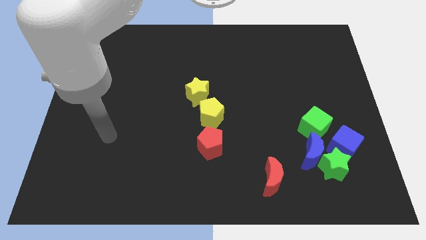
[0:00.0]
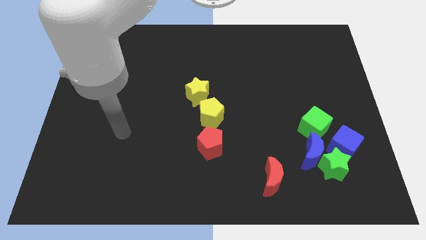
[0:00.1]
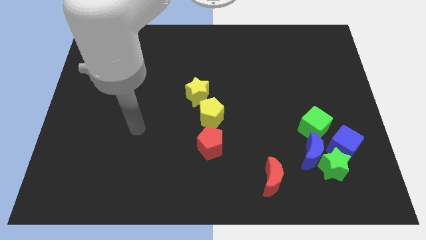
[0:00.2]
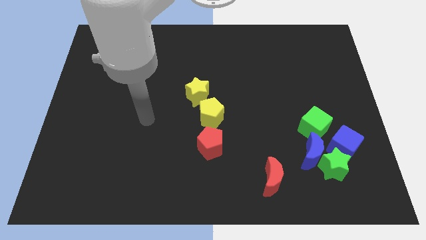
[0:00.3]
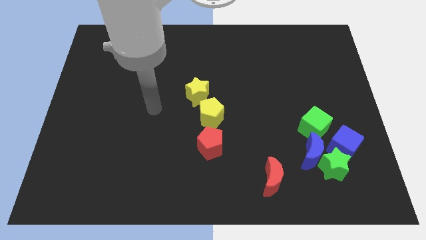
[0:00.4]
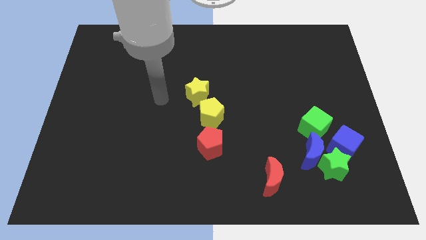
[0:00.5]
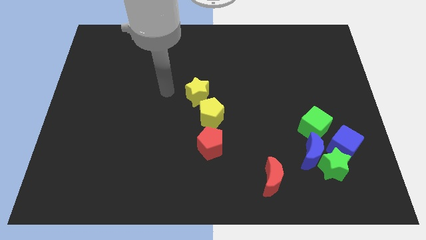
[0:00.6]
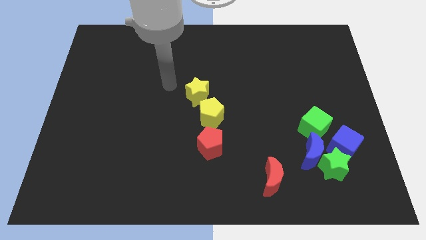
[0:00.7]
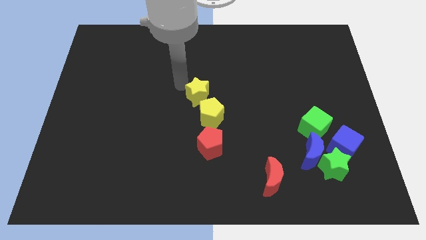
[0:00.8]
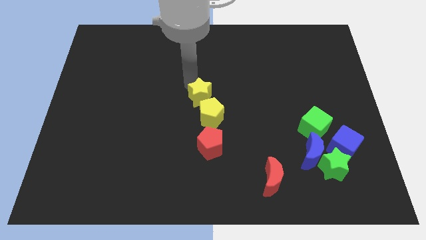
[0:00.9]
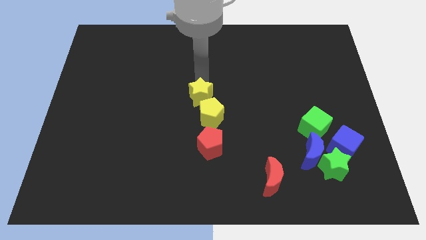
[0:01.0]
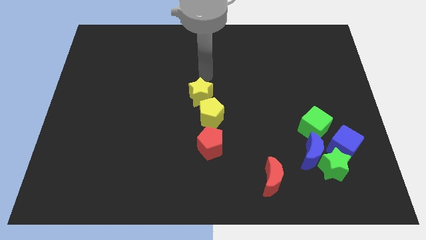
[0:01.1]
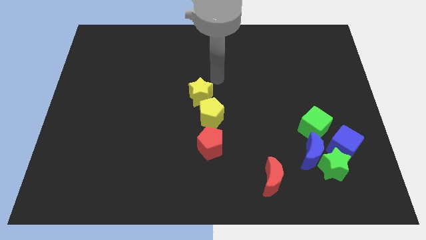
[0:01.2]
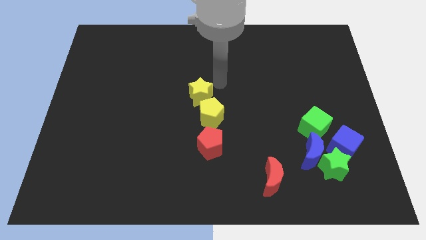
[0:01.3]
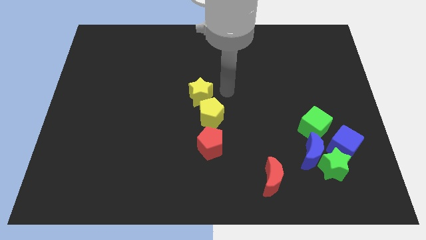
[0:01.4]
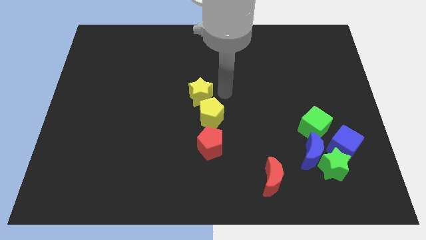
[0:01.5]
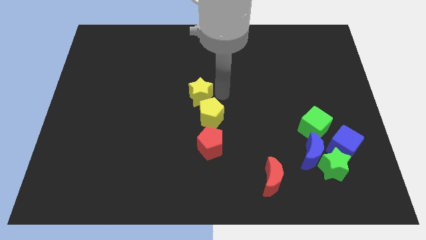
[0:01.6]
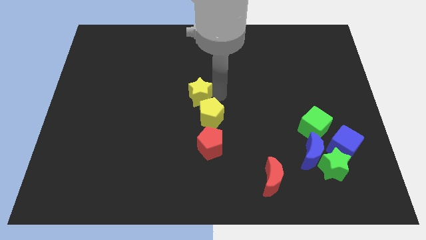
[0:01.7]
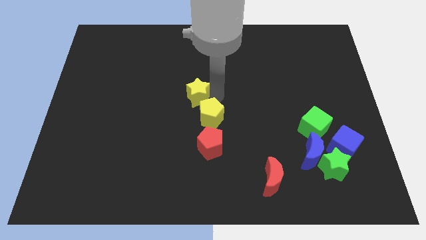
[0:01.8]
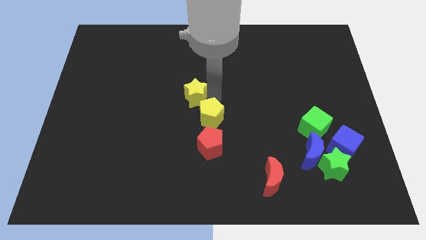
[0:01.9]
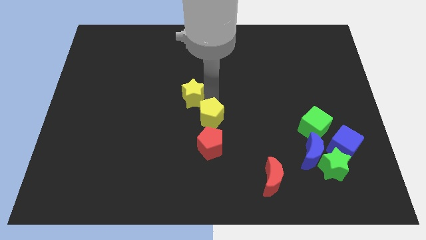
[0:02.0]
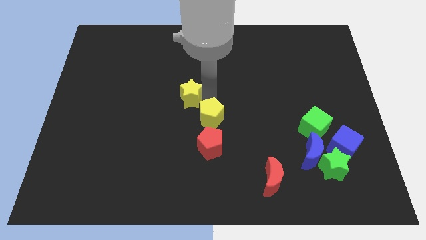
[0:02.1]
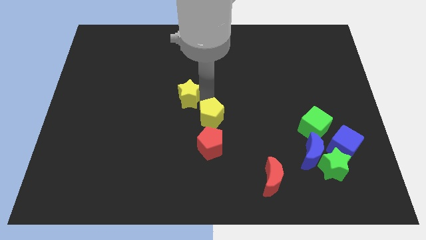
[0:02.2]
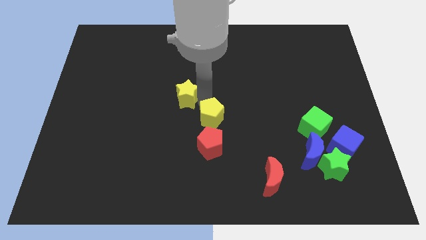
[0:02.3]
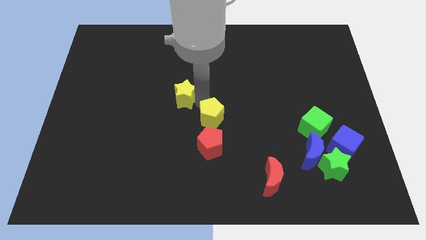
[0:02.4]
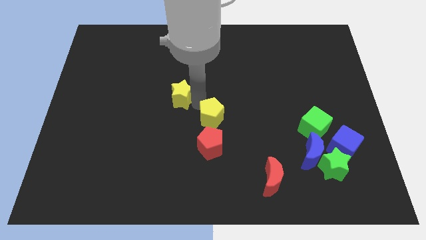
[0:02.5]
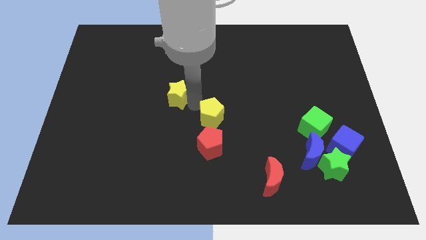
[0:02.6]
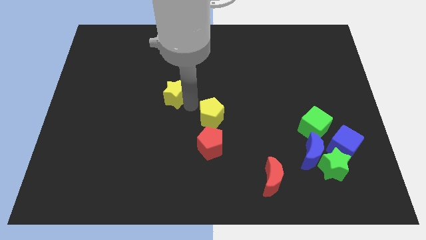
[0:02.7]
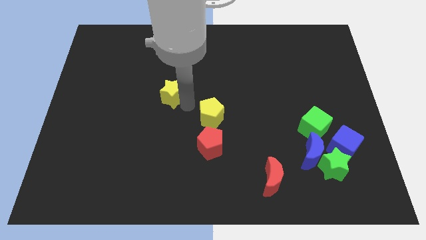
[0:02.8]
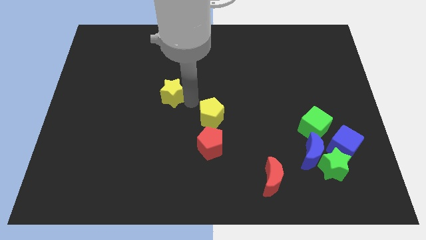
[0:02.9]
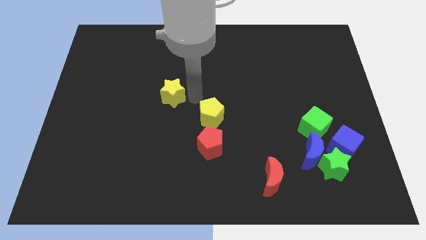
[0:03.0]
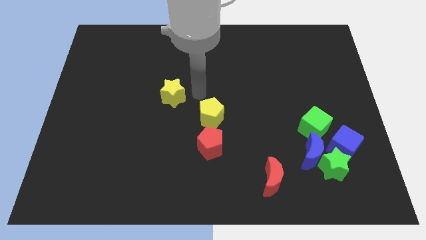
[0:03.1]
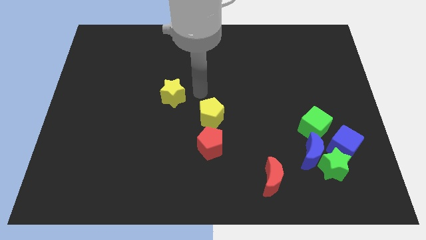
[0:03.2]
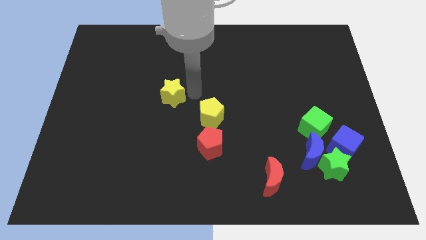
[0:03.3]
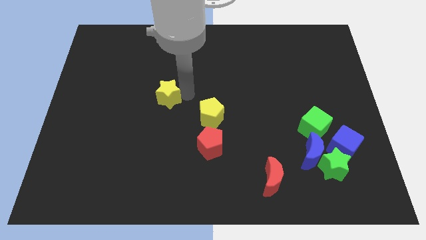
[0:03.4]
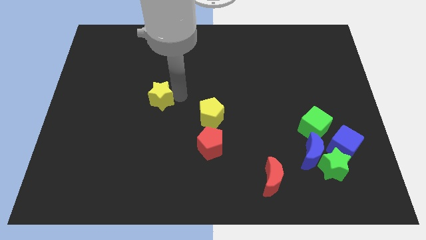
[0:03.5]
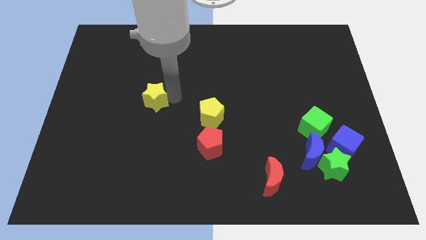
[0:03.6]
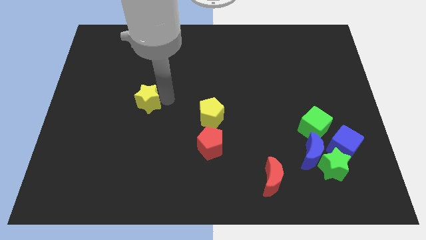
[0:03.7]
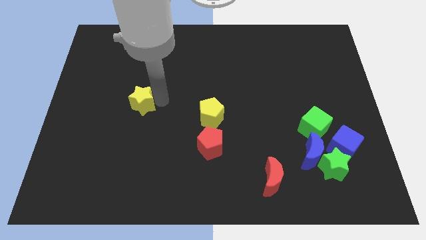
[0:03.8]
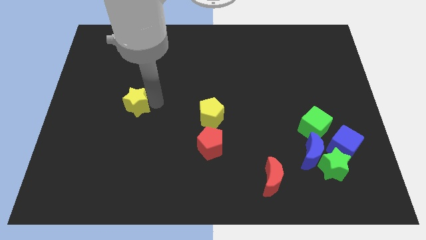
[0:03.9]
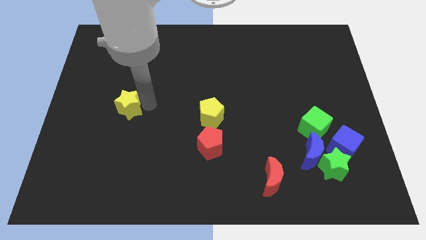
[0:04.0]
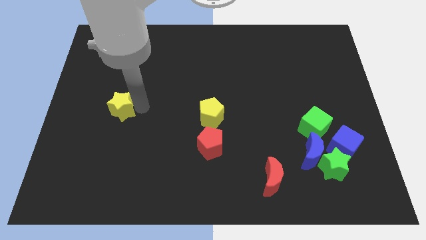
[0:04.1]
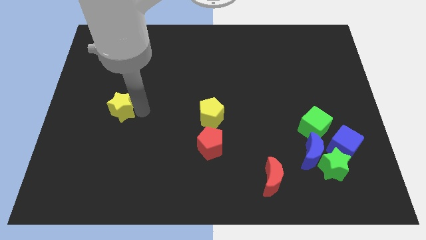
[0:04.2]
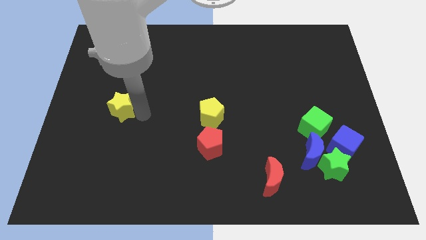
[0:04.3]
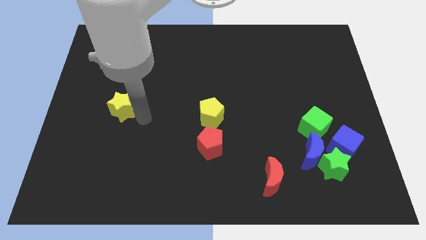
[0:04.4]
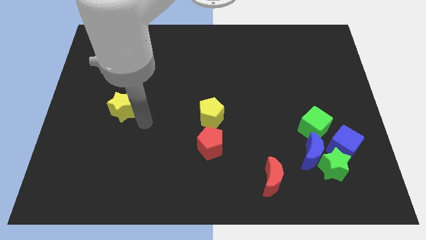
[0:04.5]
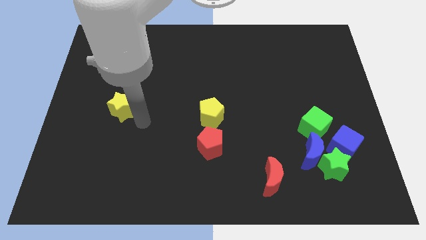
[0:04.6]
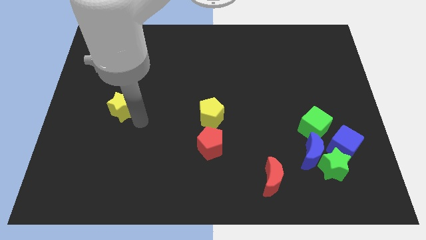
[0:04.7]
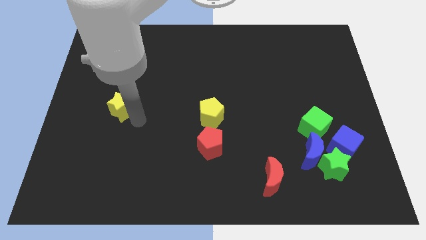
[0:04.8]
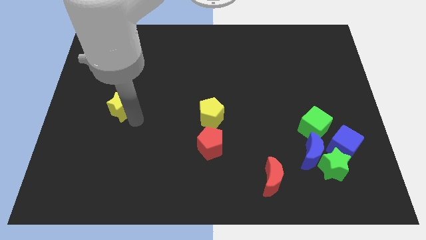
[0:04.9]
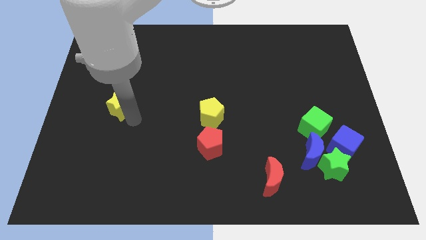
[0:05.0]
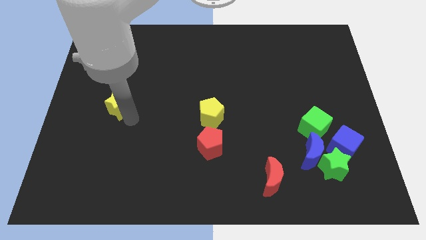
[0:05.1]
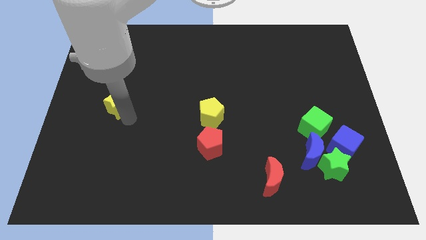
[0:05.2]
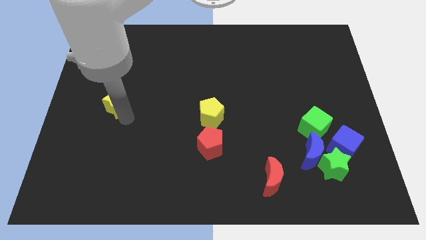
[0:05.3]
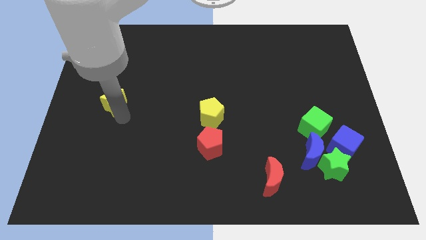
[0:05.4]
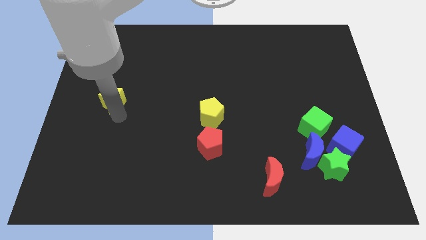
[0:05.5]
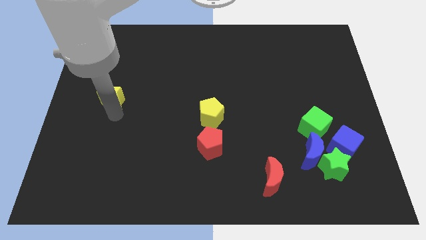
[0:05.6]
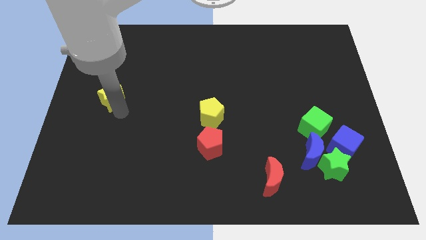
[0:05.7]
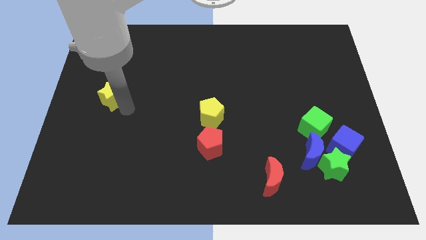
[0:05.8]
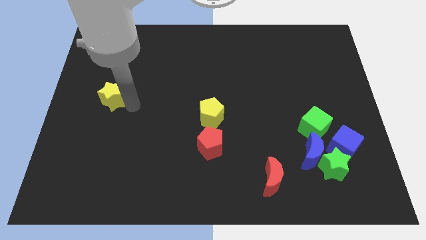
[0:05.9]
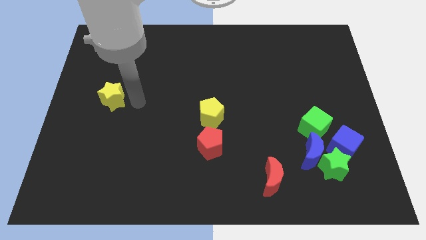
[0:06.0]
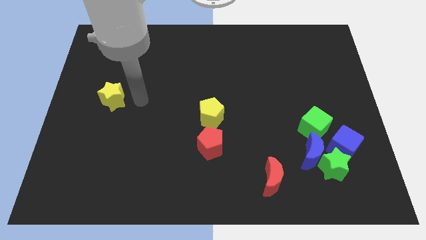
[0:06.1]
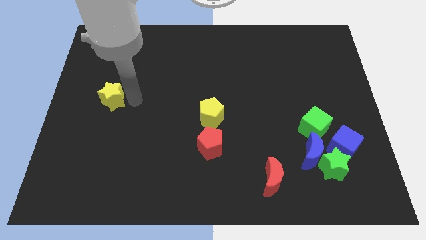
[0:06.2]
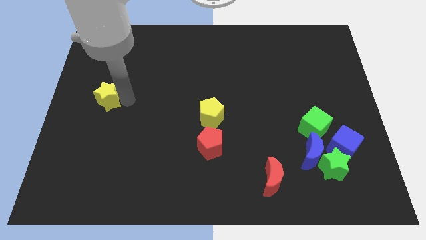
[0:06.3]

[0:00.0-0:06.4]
push the yellow star to the left side of the board

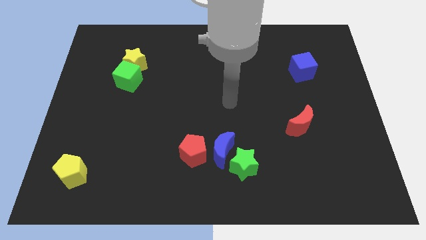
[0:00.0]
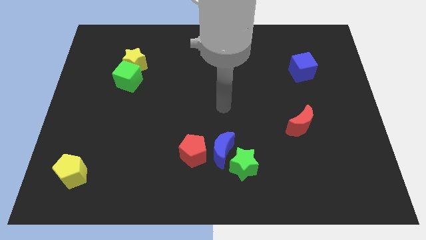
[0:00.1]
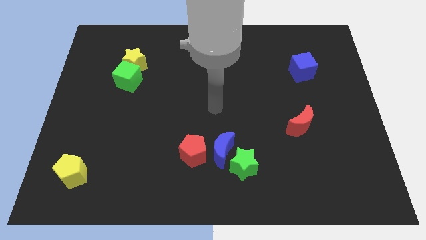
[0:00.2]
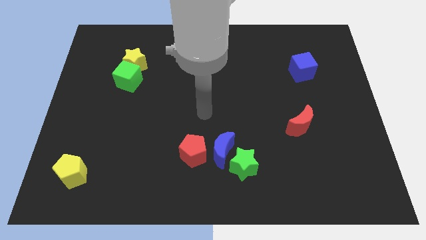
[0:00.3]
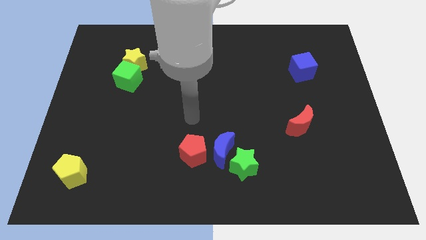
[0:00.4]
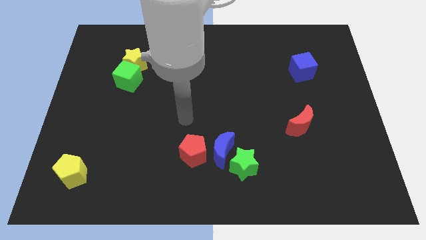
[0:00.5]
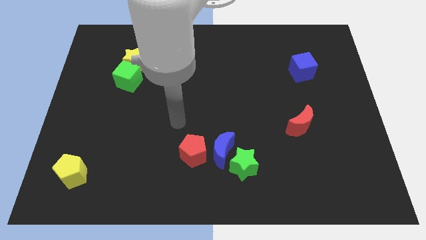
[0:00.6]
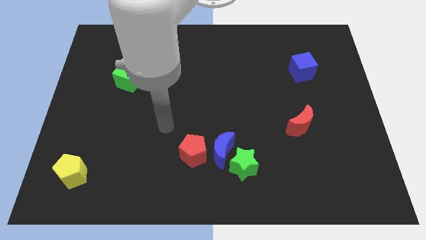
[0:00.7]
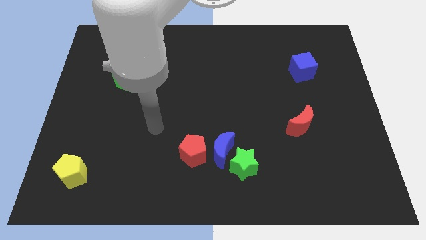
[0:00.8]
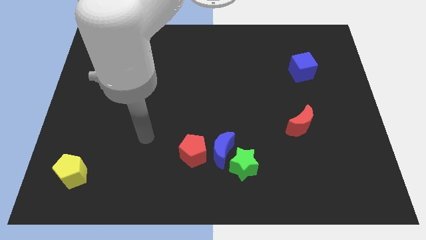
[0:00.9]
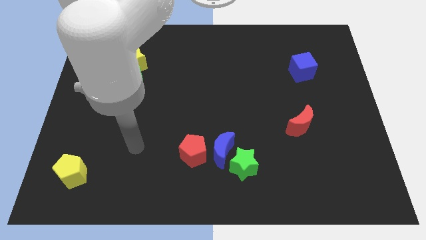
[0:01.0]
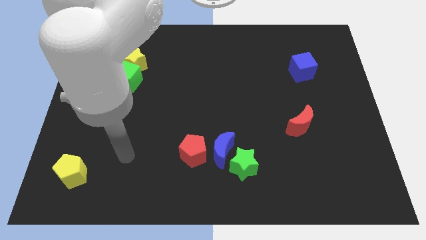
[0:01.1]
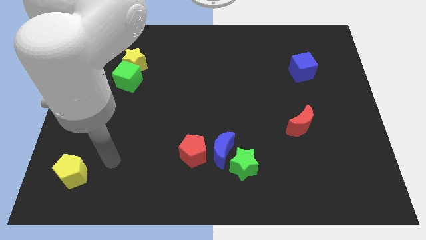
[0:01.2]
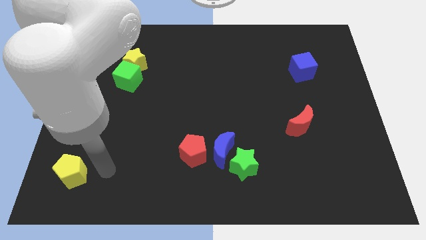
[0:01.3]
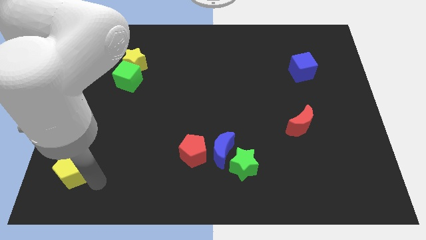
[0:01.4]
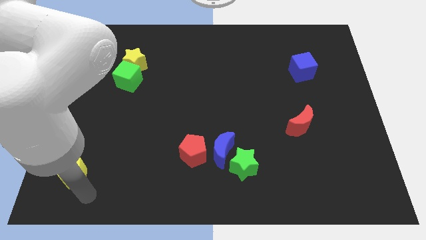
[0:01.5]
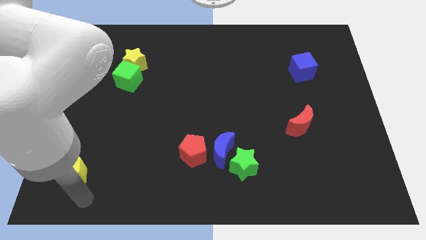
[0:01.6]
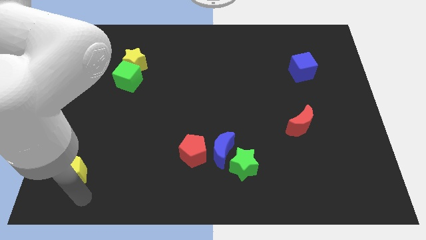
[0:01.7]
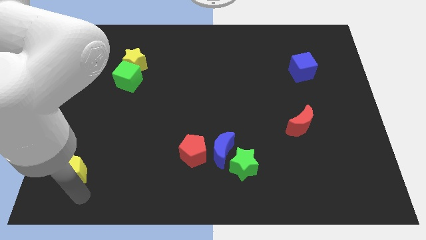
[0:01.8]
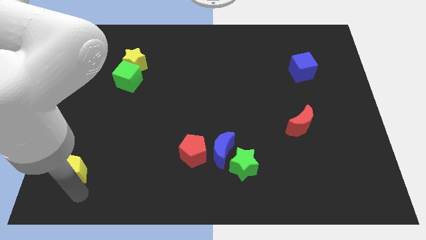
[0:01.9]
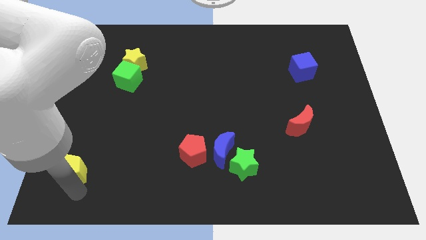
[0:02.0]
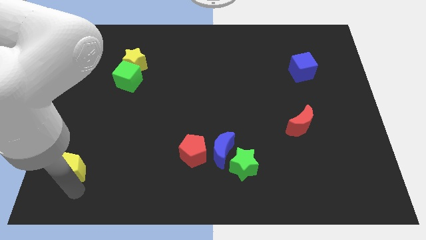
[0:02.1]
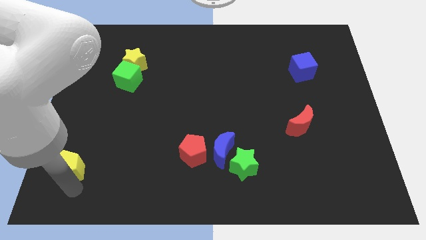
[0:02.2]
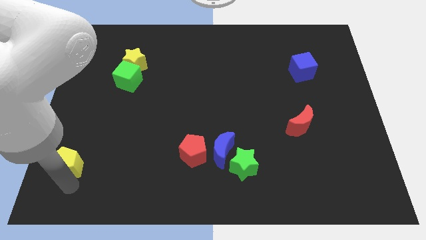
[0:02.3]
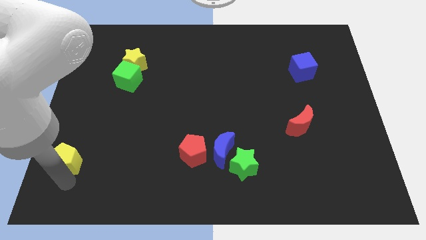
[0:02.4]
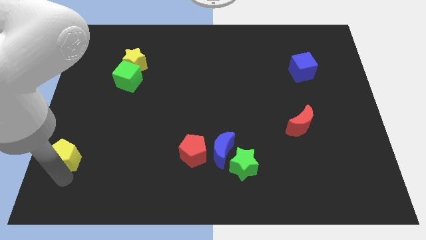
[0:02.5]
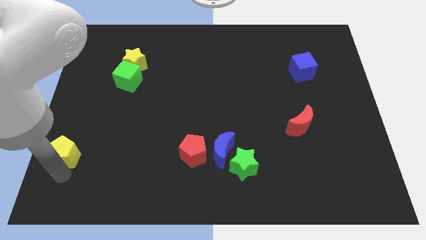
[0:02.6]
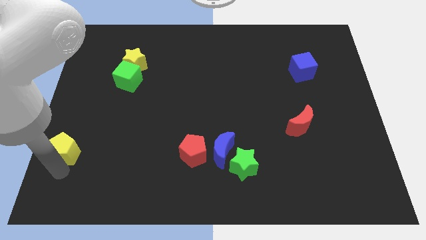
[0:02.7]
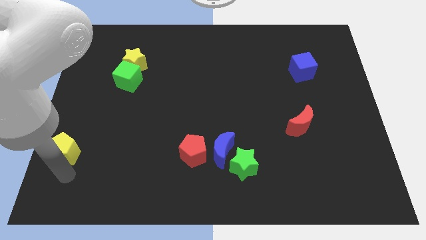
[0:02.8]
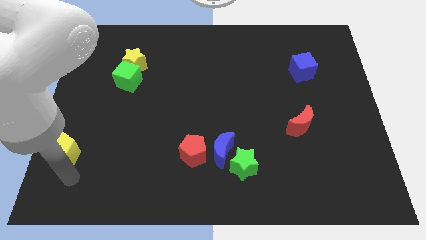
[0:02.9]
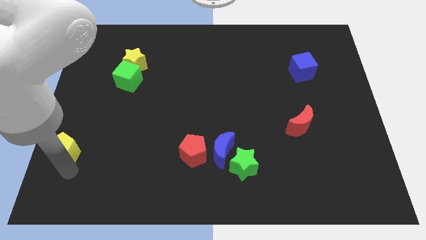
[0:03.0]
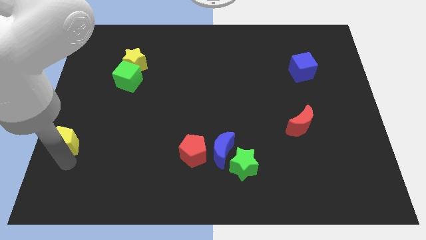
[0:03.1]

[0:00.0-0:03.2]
put the yellow pentagon to the left side of the board
